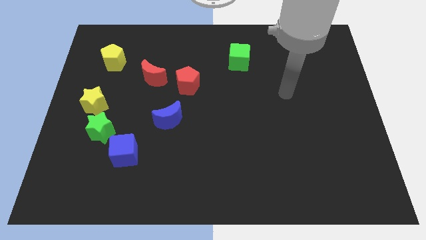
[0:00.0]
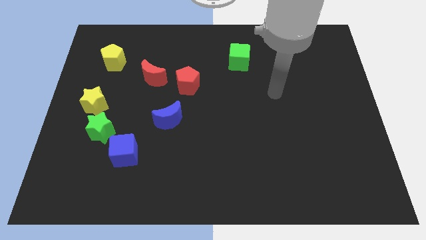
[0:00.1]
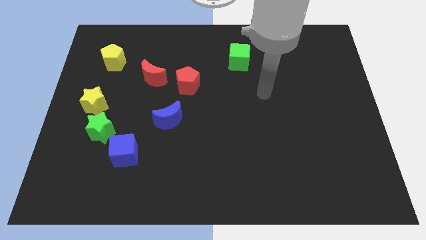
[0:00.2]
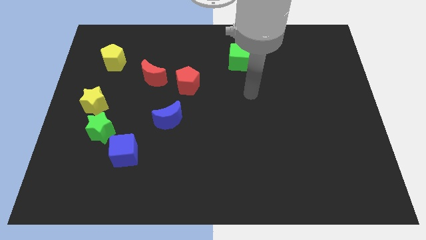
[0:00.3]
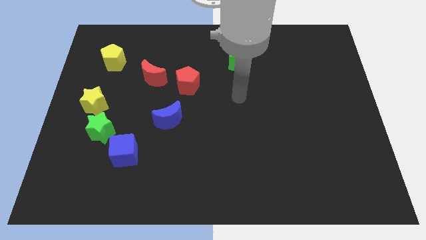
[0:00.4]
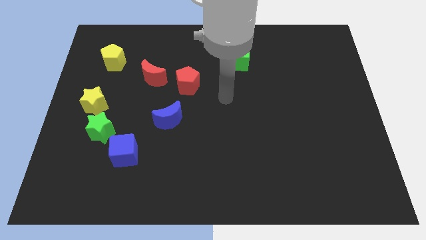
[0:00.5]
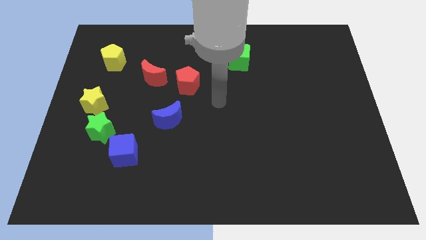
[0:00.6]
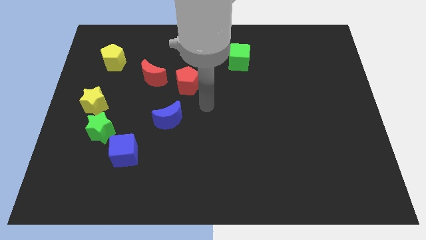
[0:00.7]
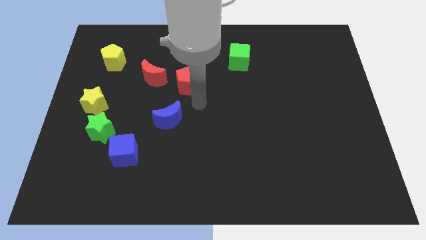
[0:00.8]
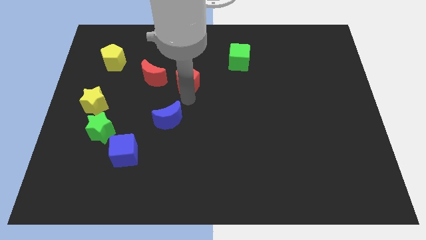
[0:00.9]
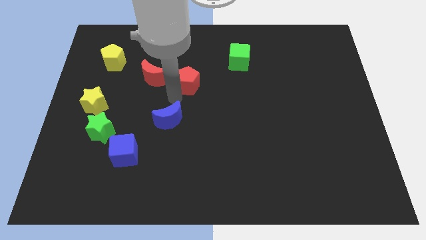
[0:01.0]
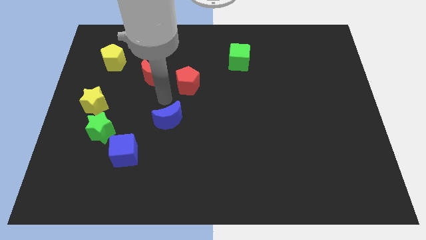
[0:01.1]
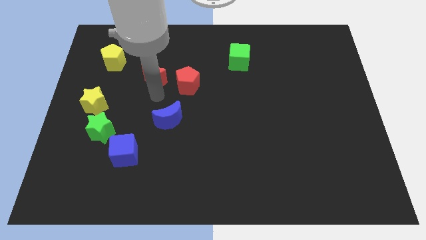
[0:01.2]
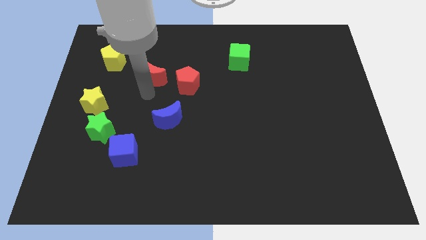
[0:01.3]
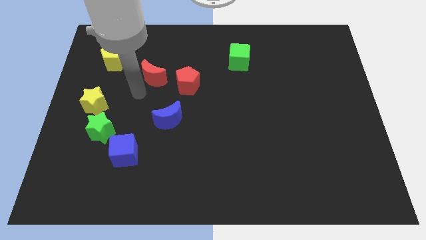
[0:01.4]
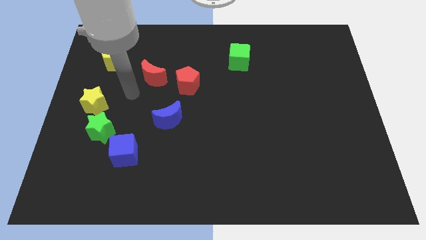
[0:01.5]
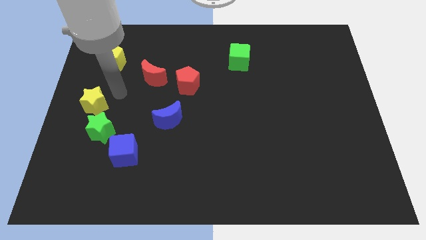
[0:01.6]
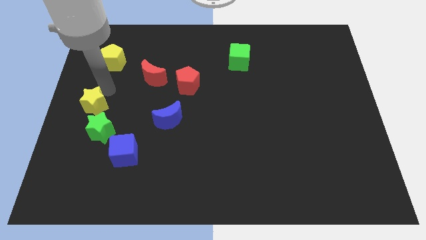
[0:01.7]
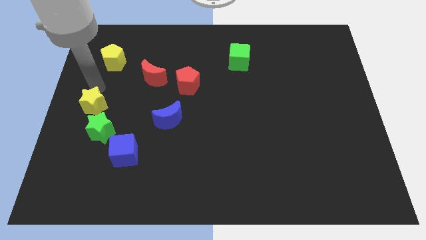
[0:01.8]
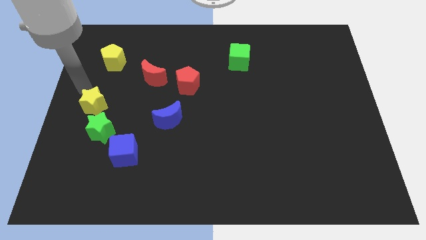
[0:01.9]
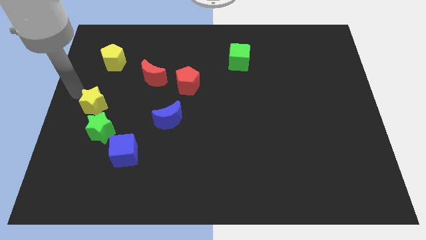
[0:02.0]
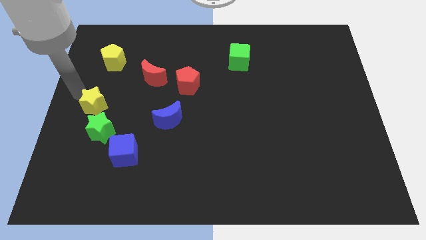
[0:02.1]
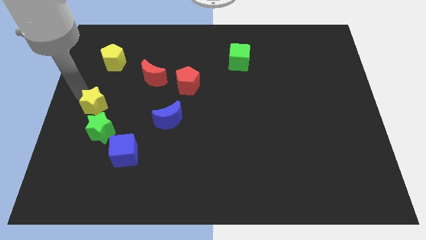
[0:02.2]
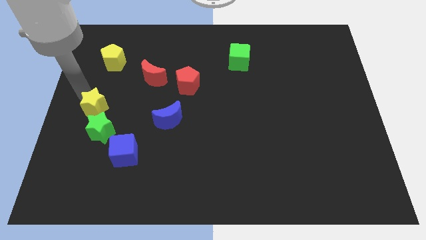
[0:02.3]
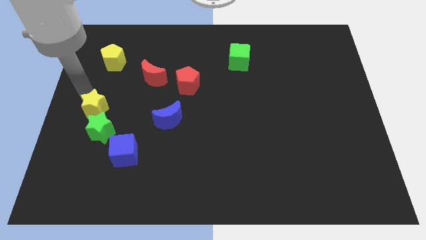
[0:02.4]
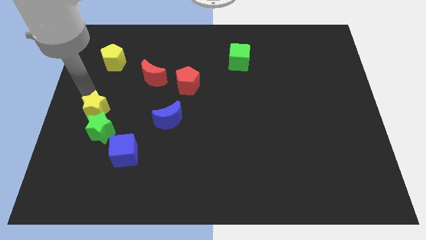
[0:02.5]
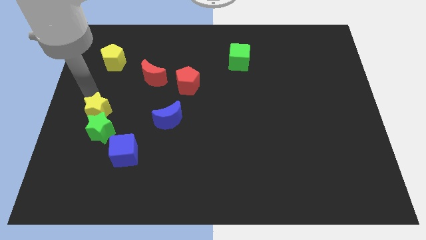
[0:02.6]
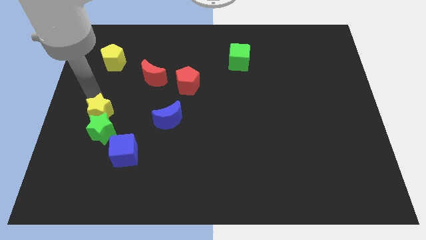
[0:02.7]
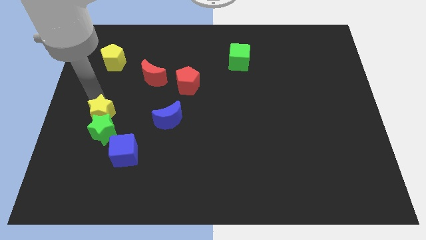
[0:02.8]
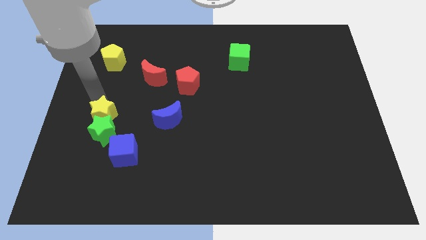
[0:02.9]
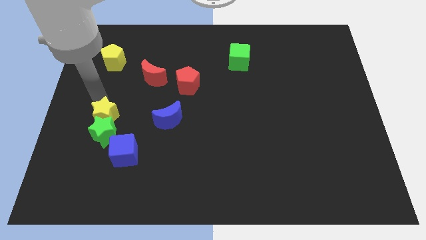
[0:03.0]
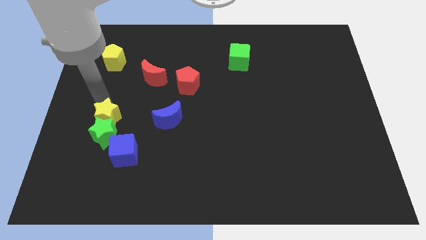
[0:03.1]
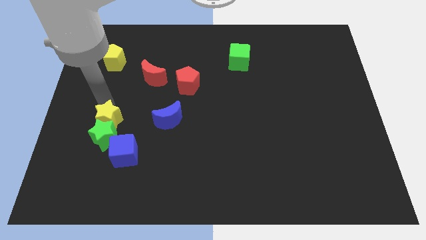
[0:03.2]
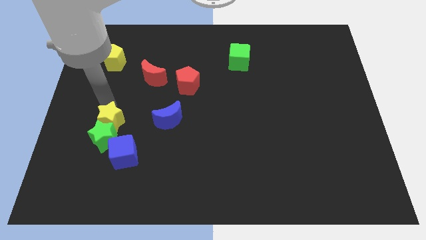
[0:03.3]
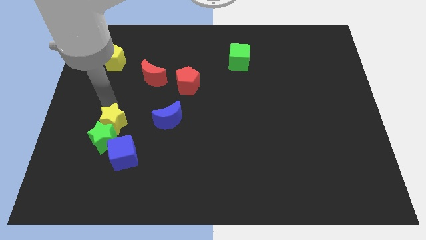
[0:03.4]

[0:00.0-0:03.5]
slide the yellow star a little down and right

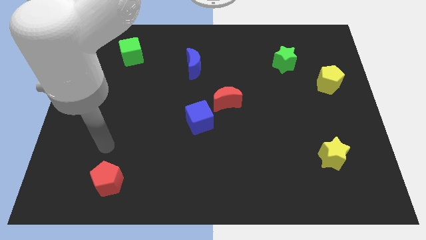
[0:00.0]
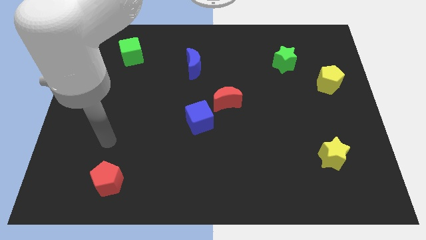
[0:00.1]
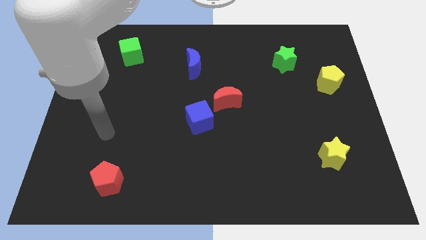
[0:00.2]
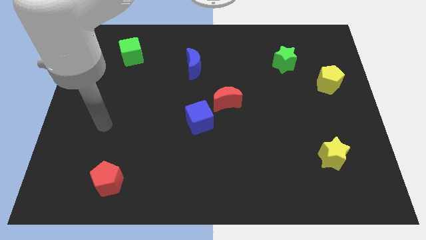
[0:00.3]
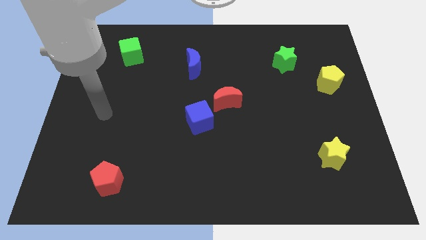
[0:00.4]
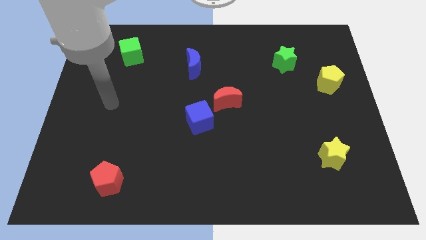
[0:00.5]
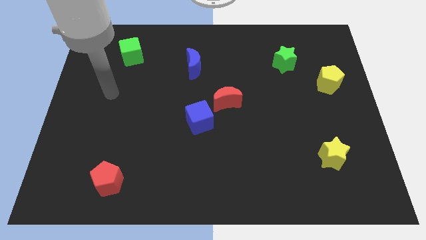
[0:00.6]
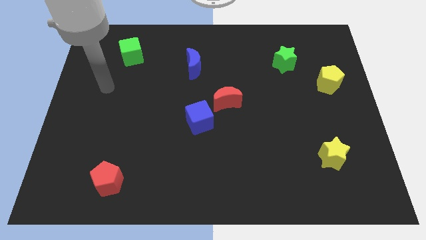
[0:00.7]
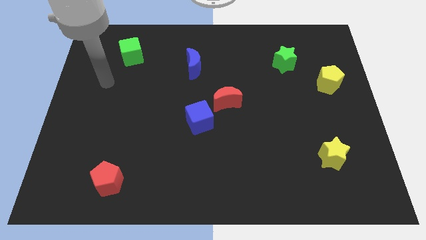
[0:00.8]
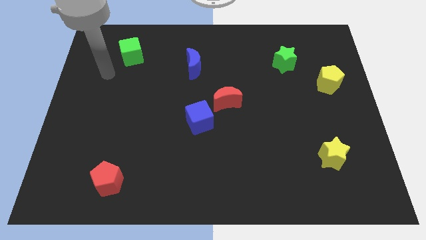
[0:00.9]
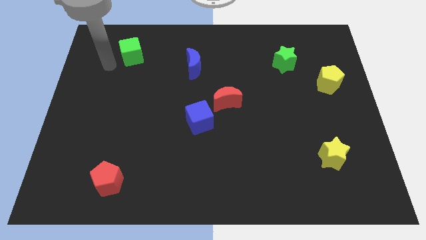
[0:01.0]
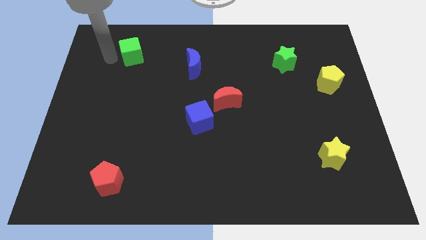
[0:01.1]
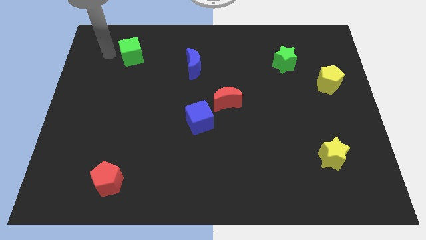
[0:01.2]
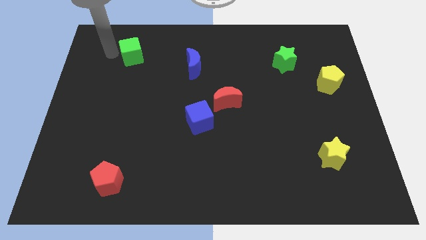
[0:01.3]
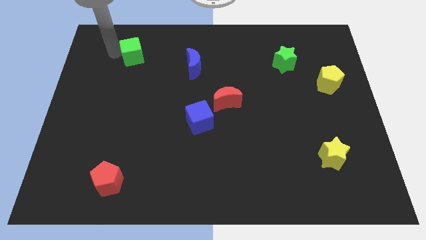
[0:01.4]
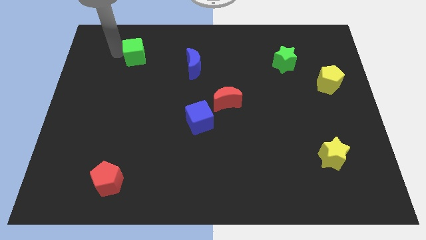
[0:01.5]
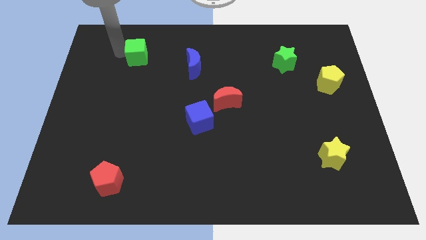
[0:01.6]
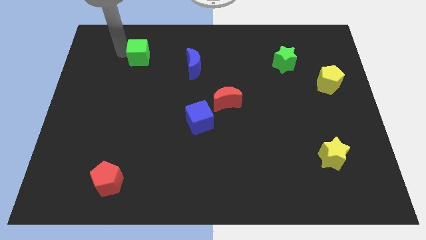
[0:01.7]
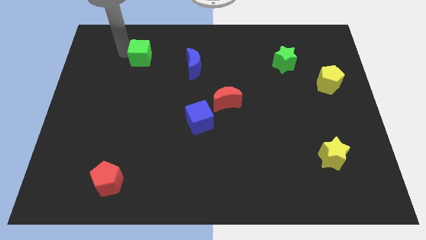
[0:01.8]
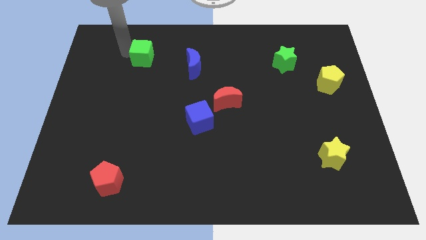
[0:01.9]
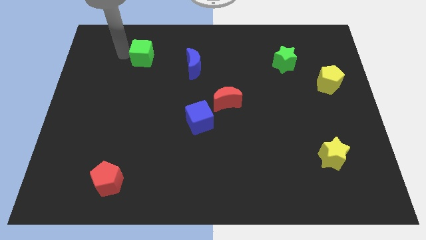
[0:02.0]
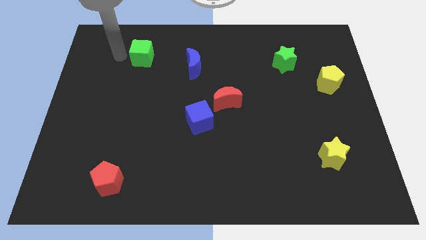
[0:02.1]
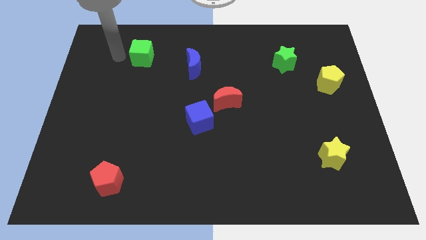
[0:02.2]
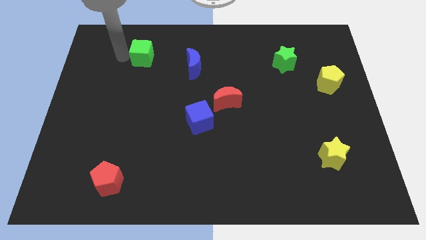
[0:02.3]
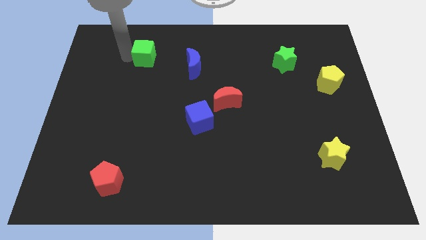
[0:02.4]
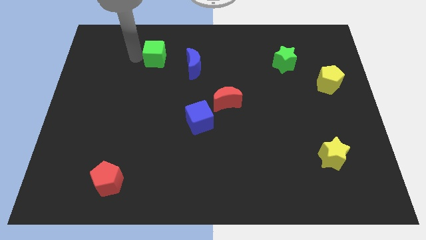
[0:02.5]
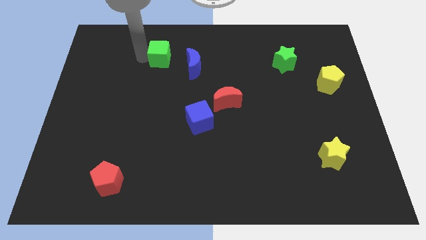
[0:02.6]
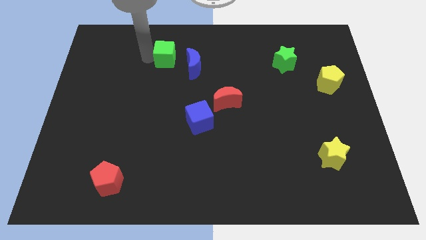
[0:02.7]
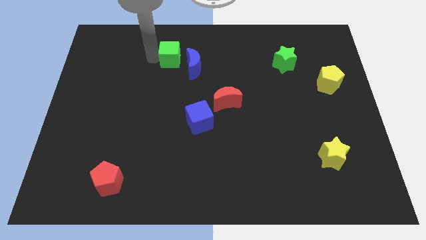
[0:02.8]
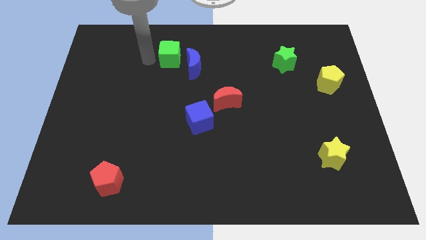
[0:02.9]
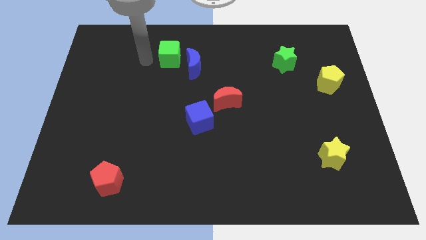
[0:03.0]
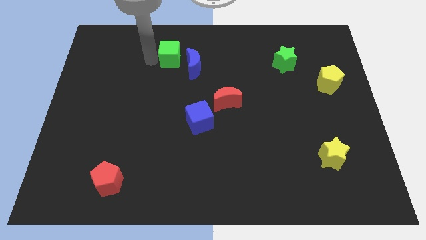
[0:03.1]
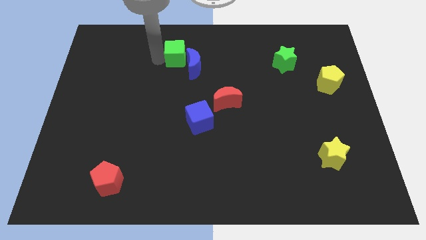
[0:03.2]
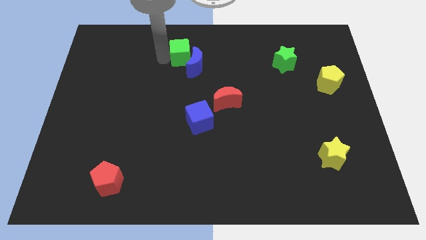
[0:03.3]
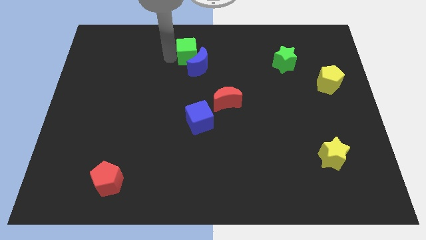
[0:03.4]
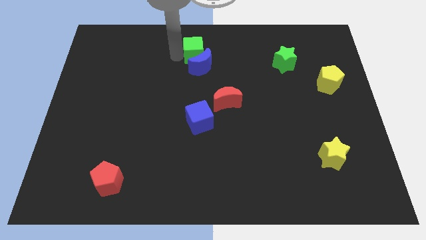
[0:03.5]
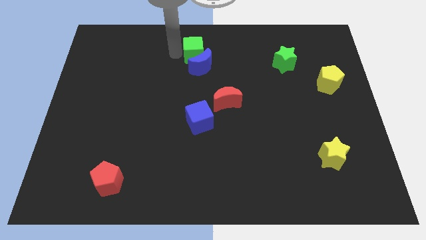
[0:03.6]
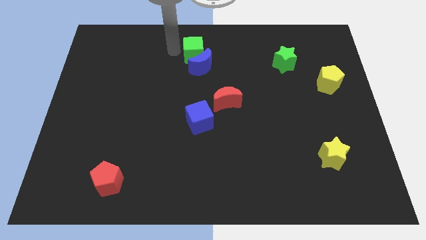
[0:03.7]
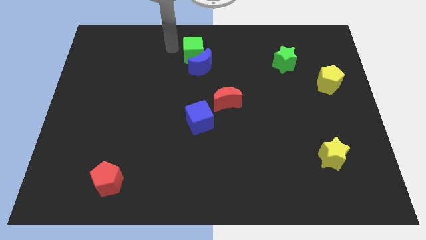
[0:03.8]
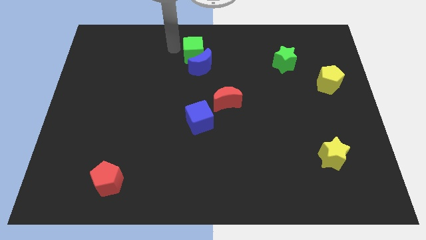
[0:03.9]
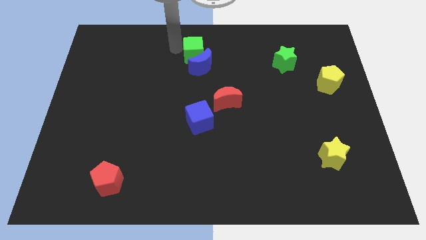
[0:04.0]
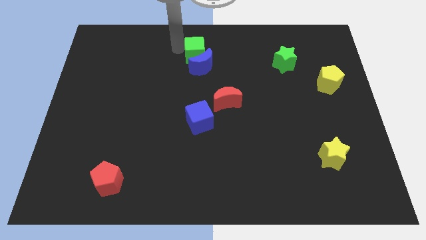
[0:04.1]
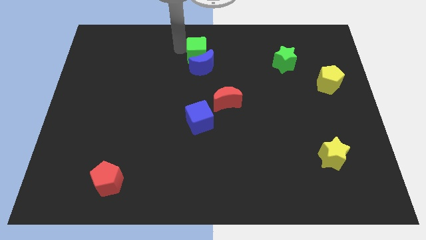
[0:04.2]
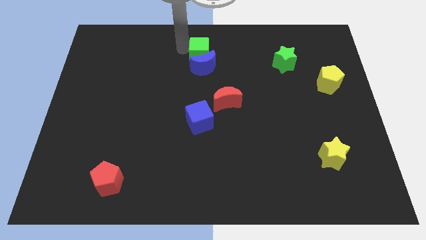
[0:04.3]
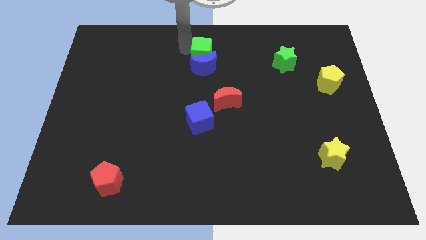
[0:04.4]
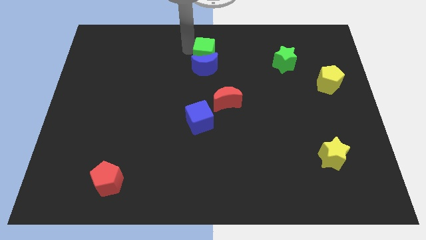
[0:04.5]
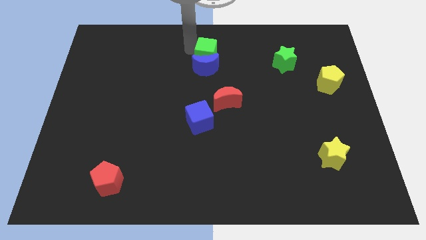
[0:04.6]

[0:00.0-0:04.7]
slide the green cube to the right

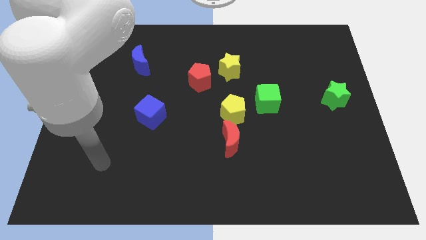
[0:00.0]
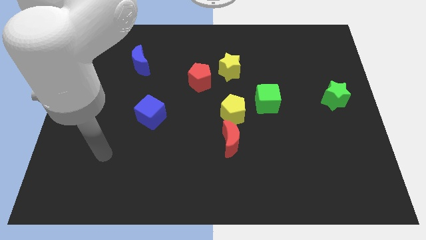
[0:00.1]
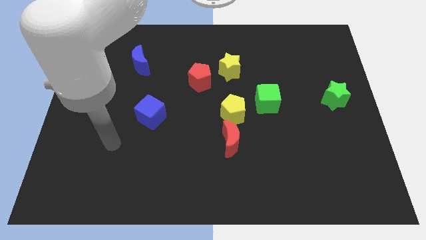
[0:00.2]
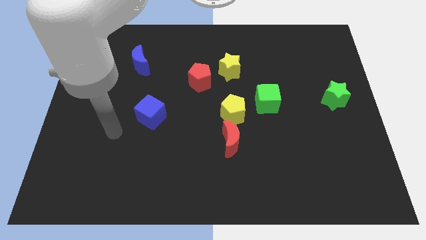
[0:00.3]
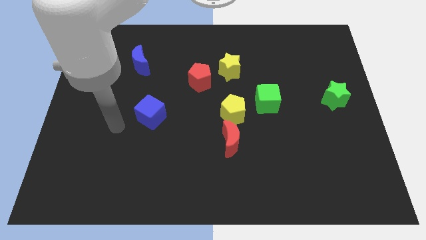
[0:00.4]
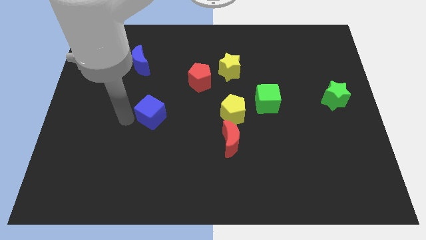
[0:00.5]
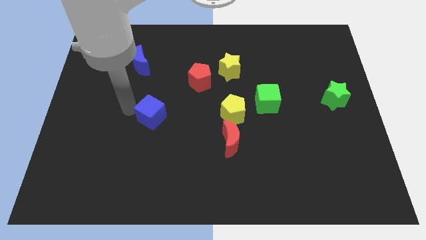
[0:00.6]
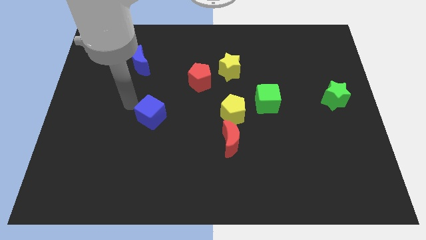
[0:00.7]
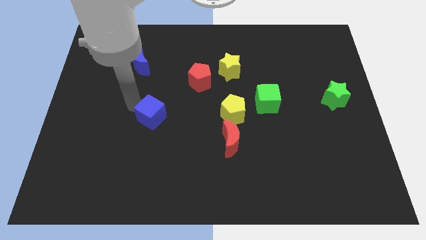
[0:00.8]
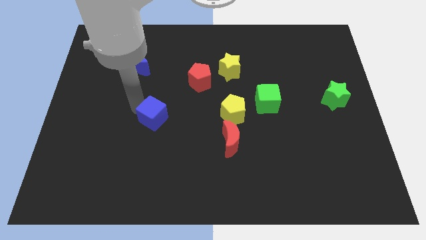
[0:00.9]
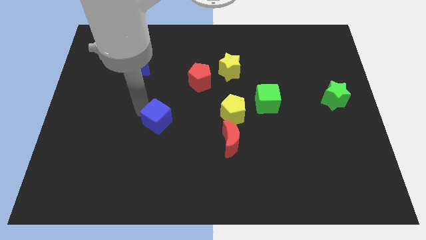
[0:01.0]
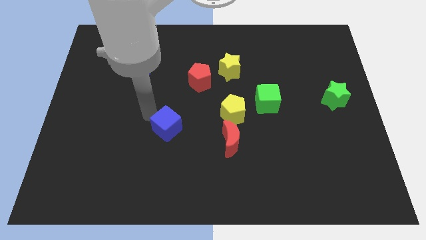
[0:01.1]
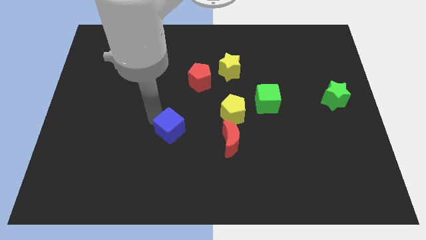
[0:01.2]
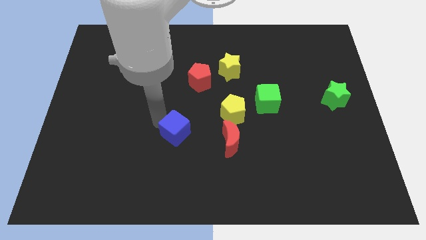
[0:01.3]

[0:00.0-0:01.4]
move the blue cube down and then to the right a bit
